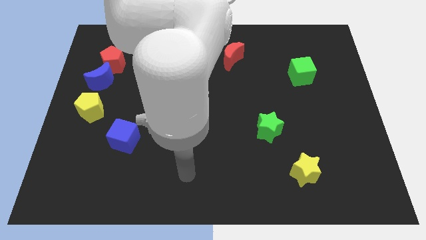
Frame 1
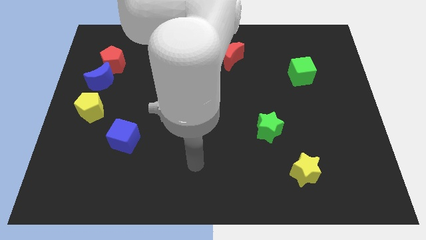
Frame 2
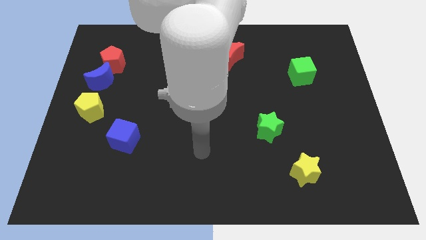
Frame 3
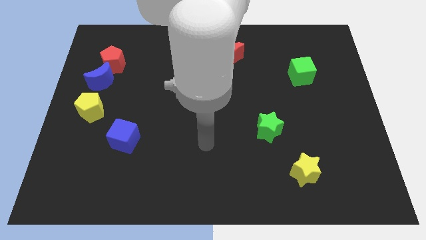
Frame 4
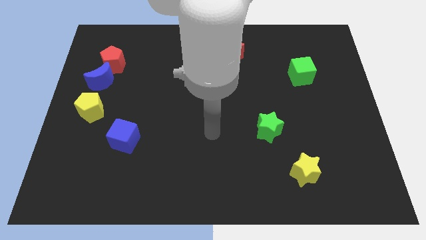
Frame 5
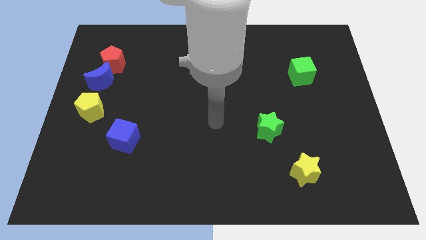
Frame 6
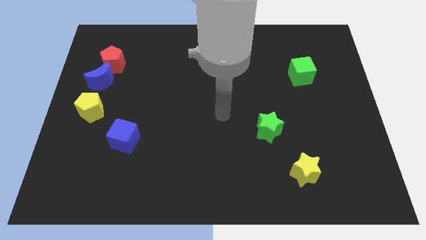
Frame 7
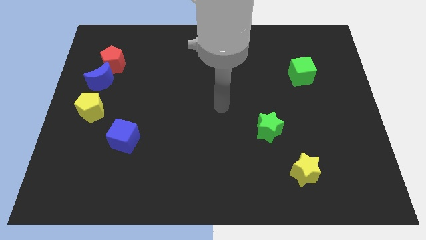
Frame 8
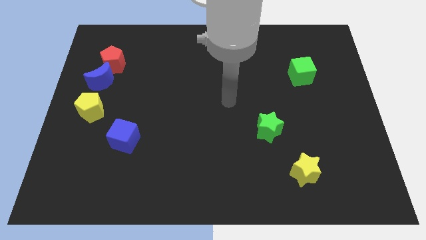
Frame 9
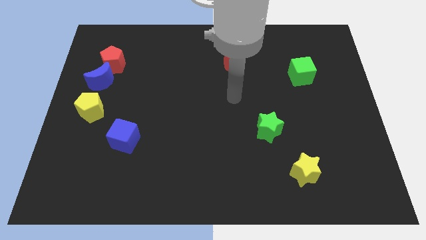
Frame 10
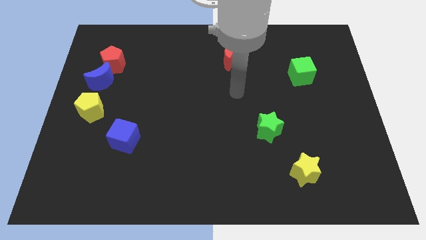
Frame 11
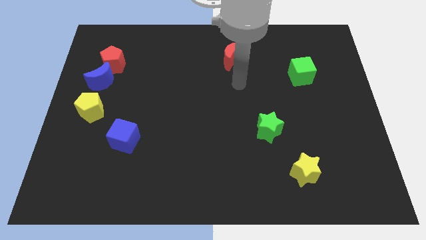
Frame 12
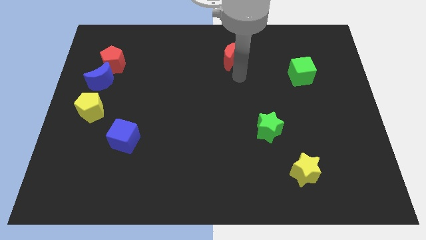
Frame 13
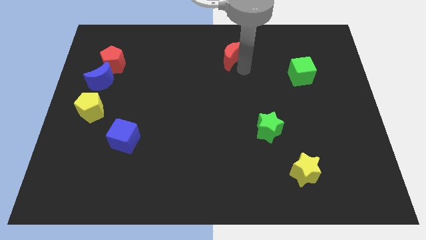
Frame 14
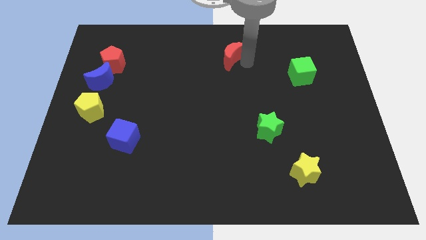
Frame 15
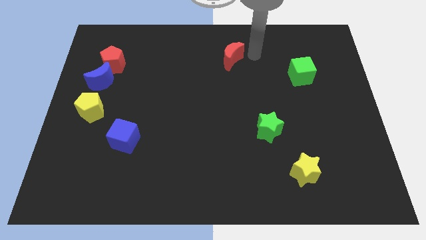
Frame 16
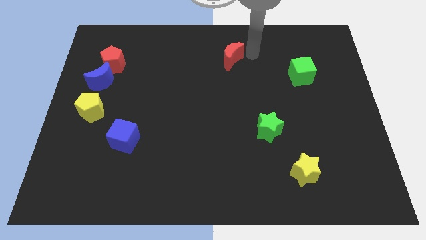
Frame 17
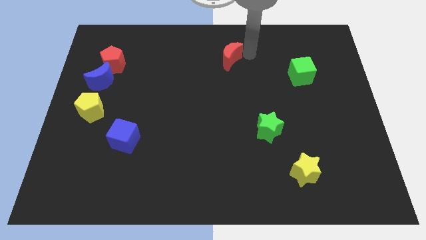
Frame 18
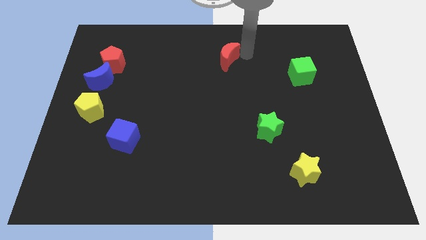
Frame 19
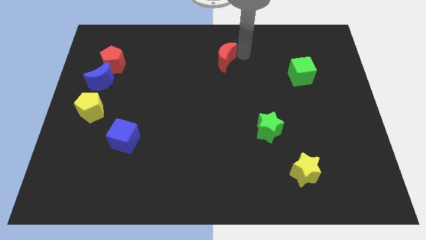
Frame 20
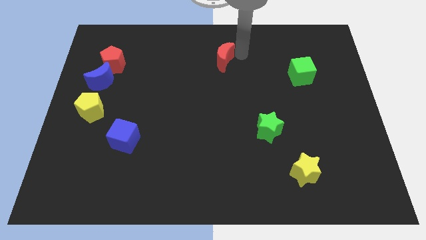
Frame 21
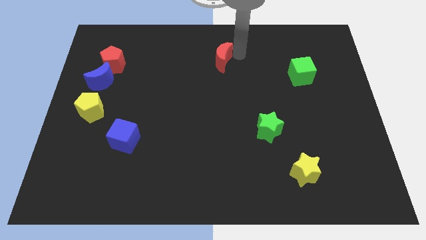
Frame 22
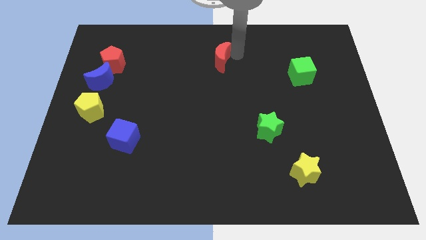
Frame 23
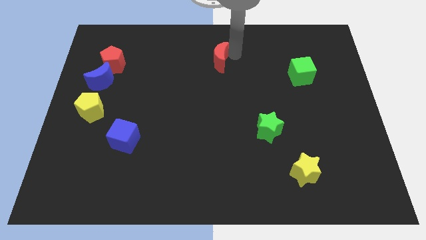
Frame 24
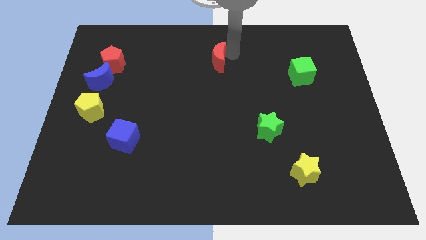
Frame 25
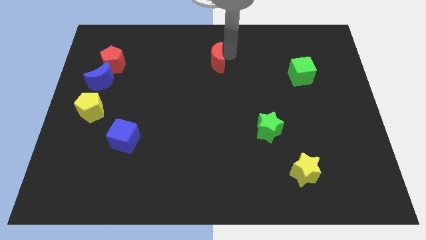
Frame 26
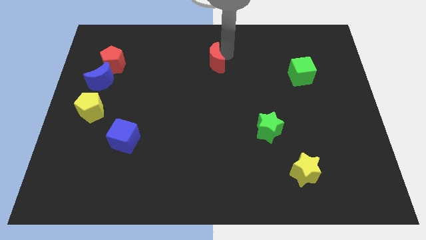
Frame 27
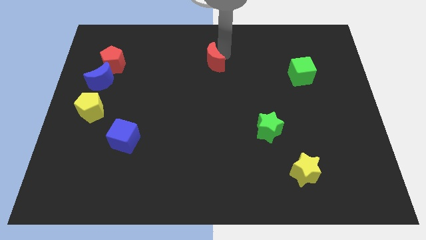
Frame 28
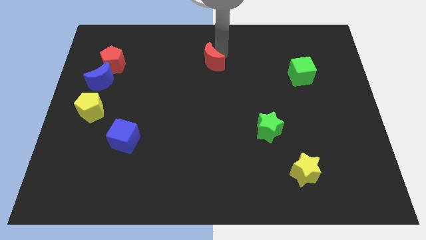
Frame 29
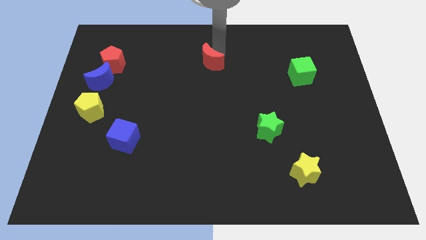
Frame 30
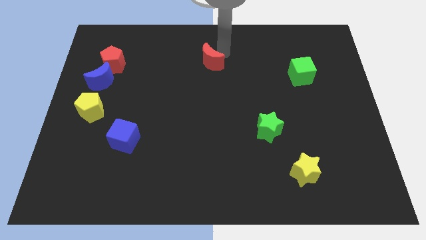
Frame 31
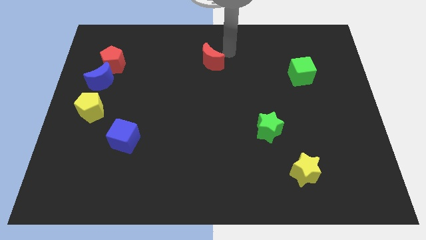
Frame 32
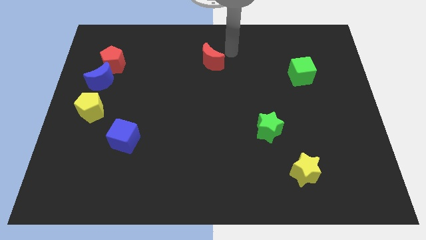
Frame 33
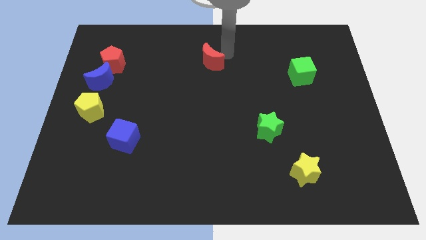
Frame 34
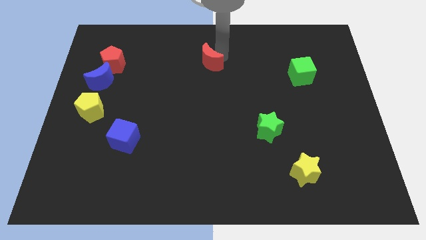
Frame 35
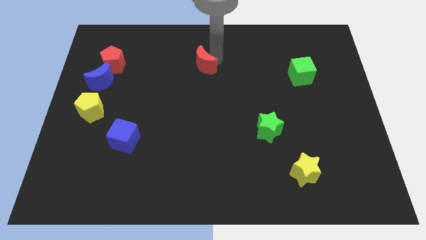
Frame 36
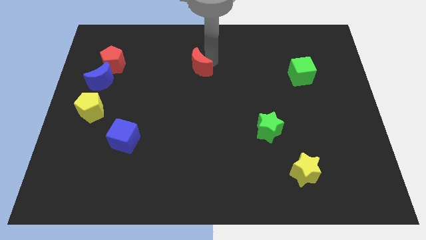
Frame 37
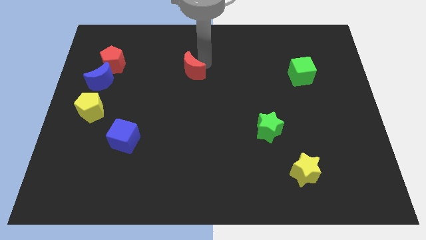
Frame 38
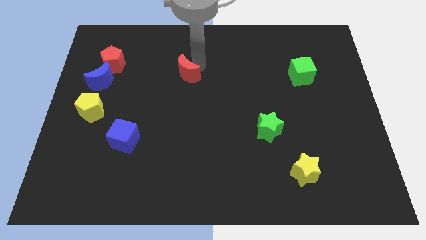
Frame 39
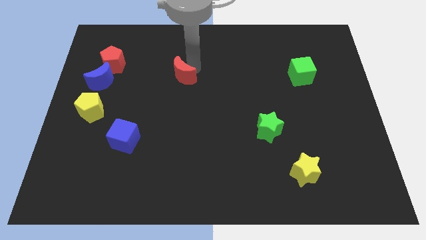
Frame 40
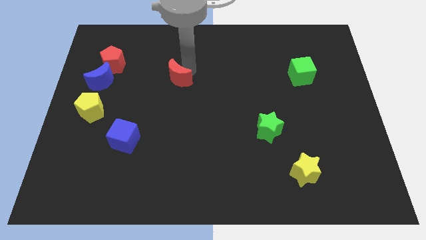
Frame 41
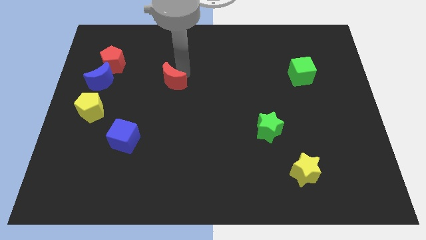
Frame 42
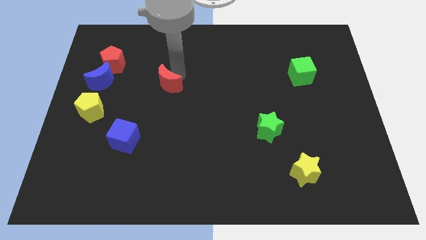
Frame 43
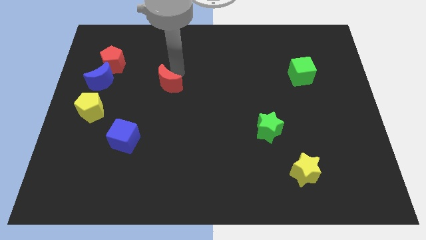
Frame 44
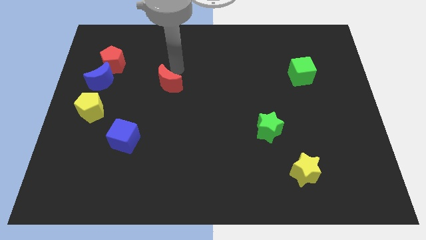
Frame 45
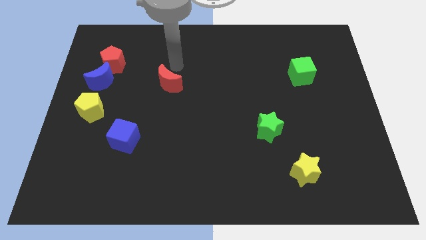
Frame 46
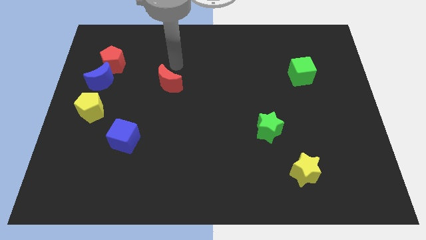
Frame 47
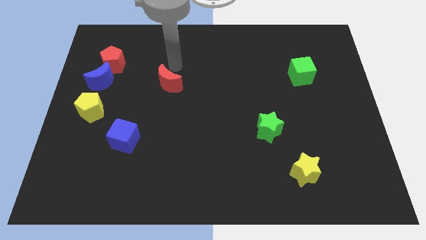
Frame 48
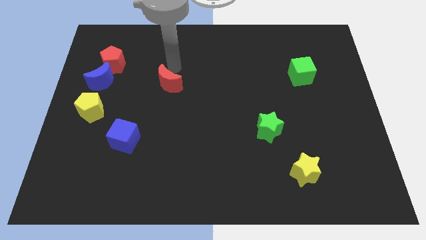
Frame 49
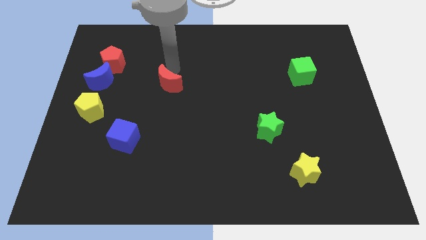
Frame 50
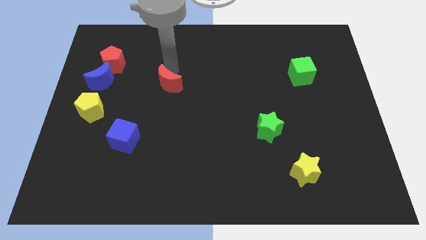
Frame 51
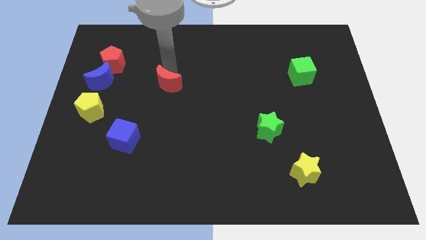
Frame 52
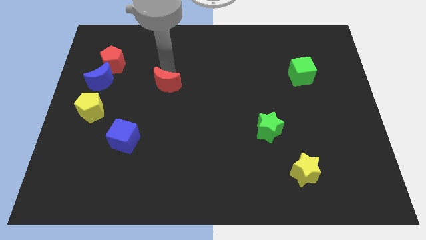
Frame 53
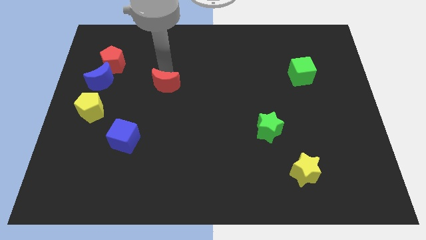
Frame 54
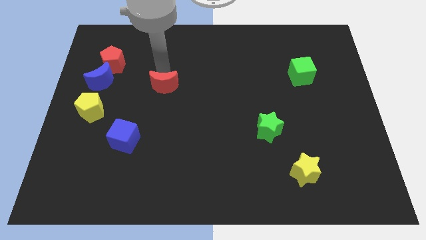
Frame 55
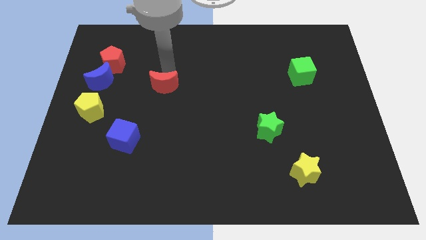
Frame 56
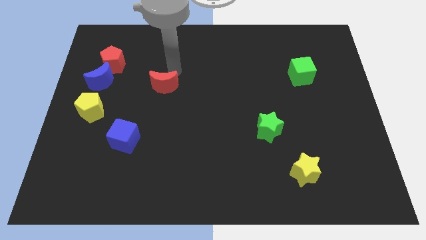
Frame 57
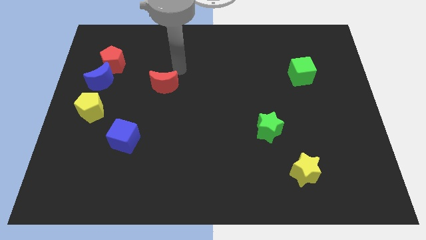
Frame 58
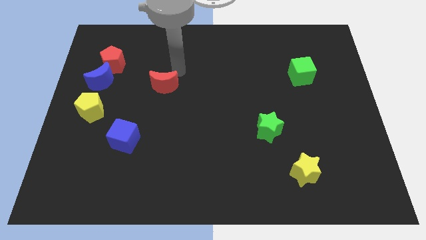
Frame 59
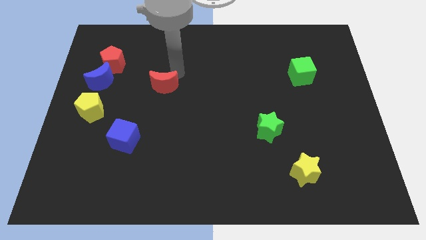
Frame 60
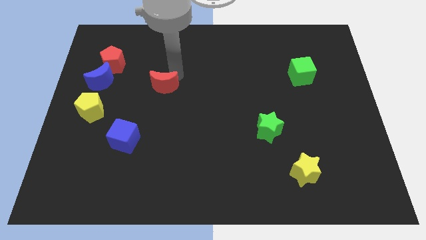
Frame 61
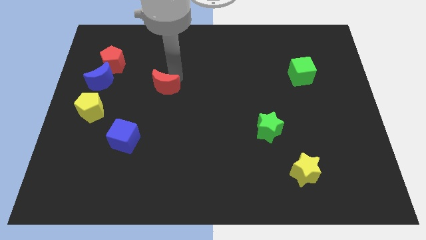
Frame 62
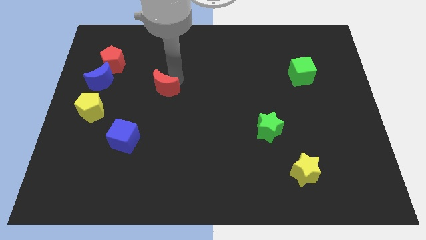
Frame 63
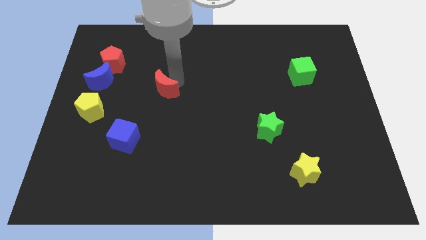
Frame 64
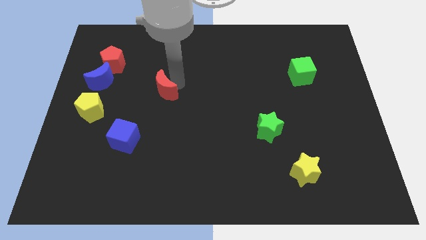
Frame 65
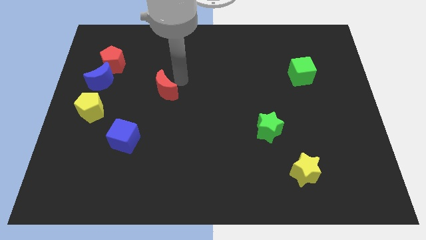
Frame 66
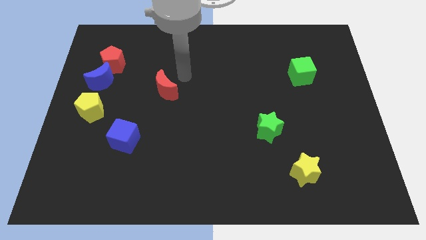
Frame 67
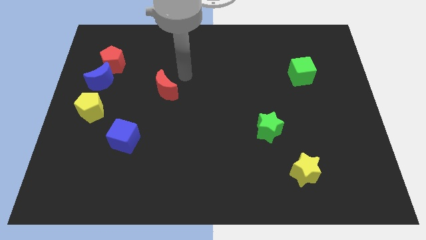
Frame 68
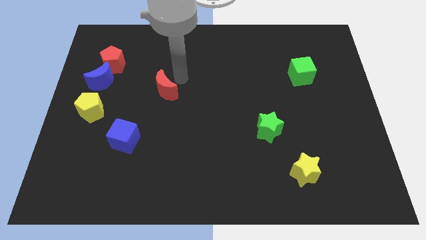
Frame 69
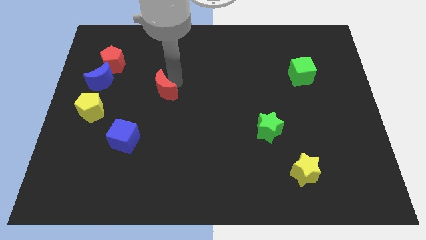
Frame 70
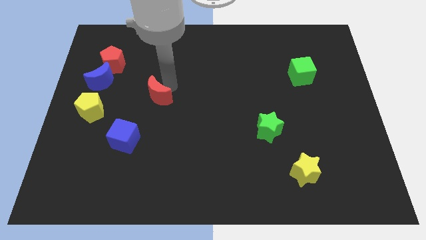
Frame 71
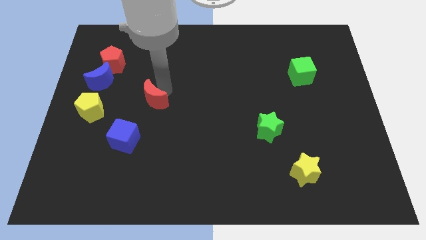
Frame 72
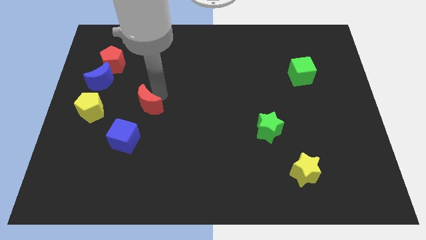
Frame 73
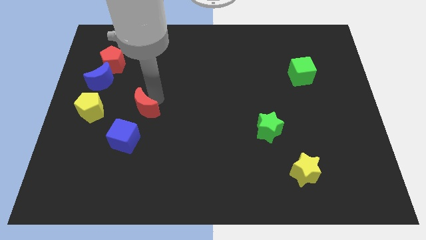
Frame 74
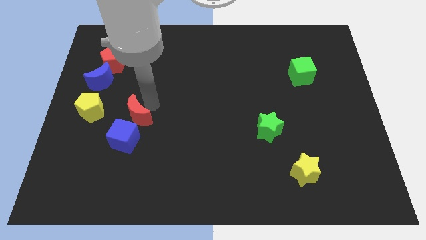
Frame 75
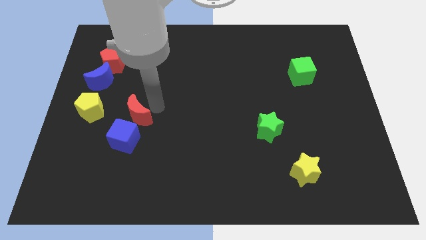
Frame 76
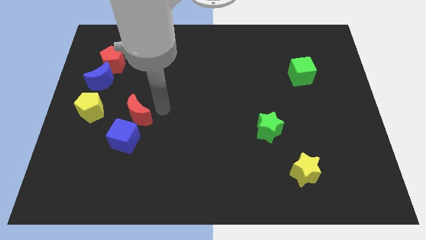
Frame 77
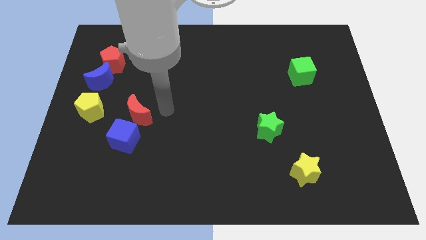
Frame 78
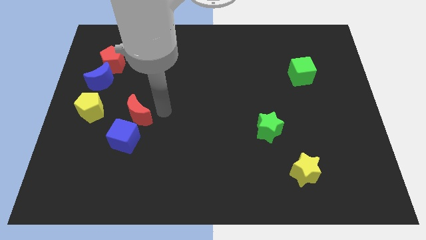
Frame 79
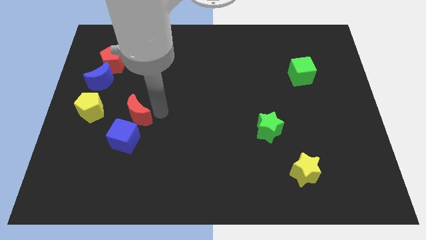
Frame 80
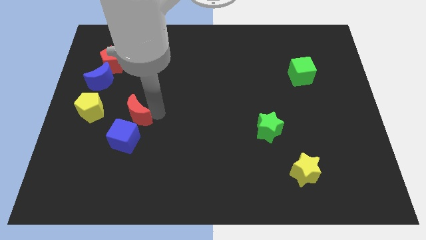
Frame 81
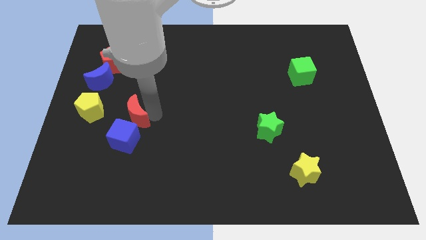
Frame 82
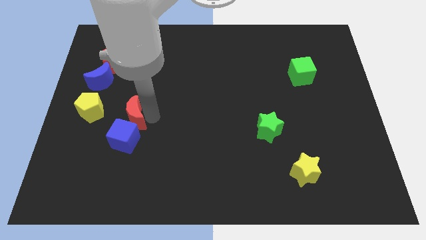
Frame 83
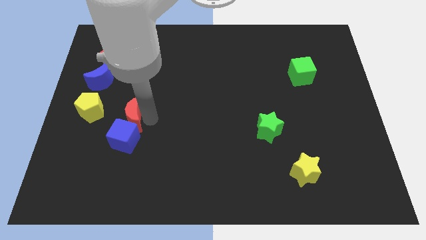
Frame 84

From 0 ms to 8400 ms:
move the red moon diagonally up and to the left of the blue cube
